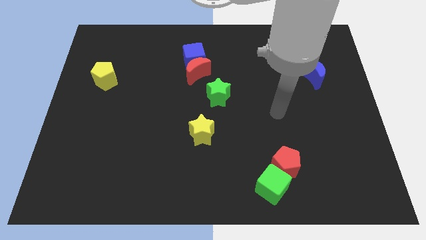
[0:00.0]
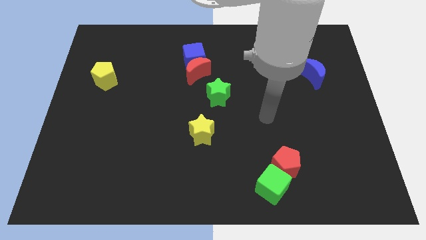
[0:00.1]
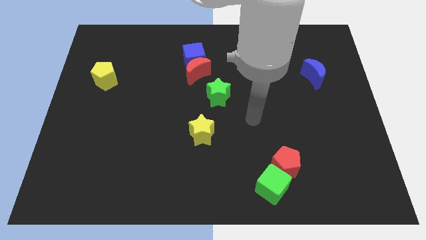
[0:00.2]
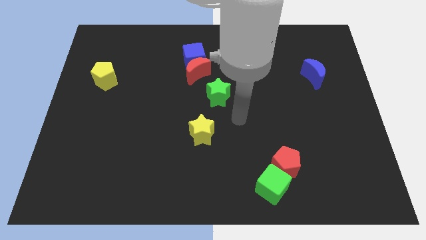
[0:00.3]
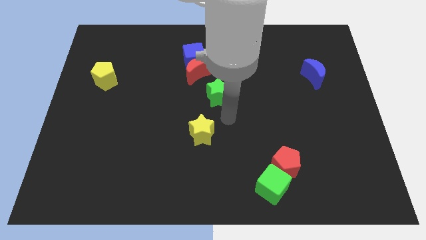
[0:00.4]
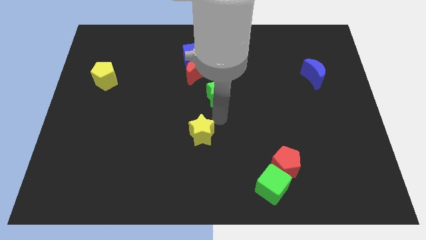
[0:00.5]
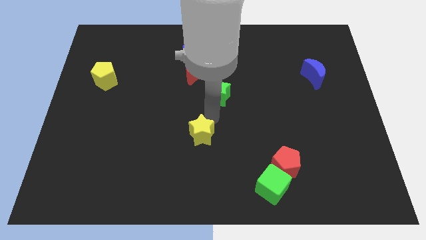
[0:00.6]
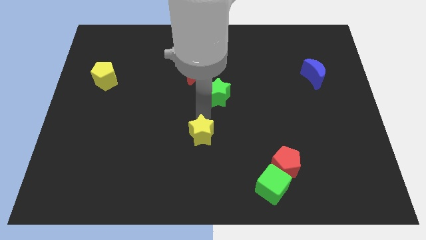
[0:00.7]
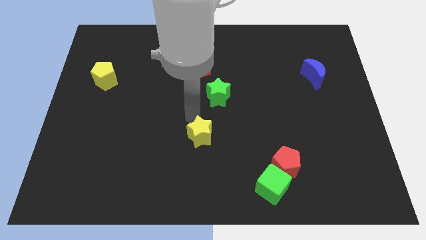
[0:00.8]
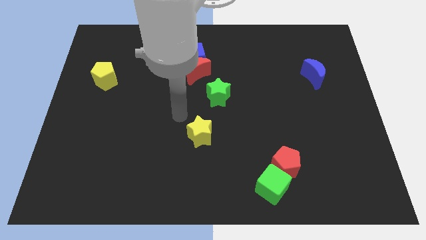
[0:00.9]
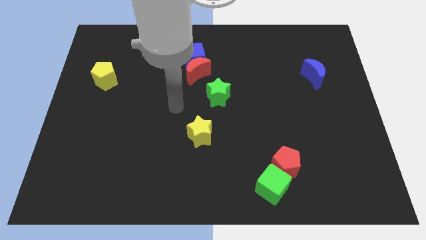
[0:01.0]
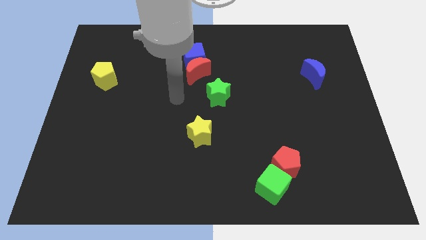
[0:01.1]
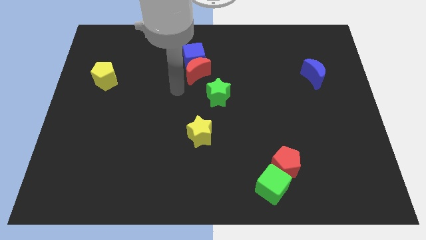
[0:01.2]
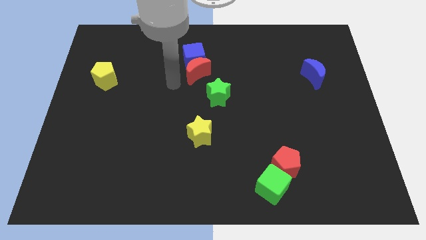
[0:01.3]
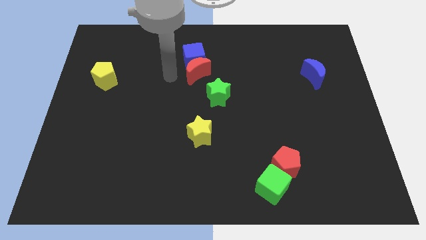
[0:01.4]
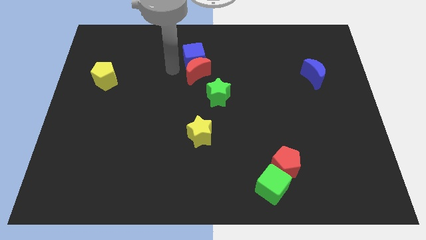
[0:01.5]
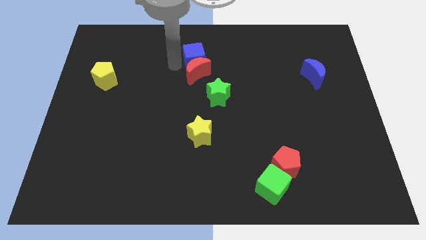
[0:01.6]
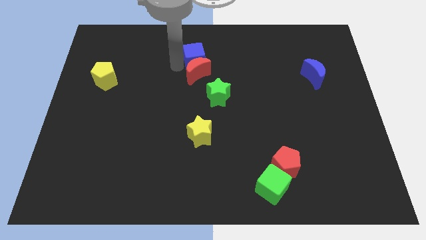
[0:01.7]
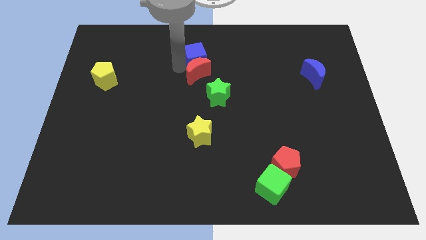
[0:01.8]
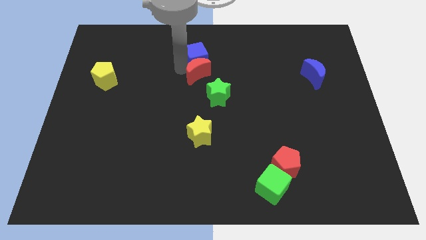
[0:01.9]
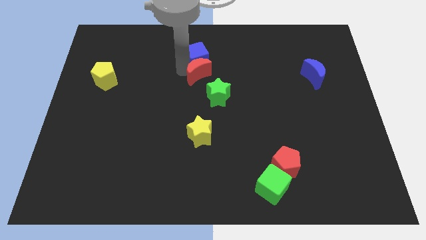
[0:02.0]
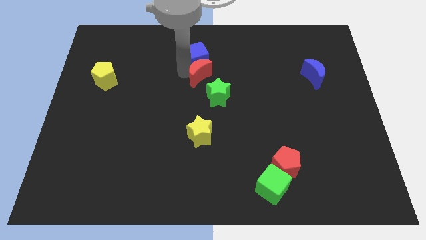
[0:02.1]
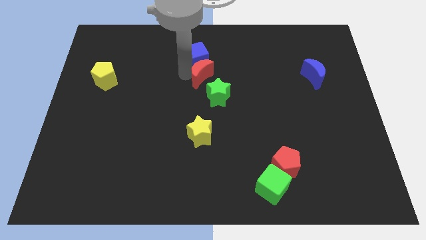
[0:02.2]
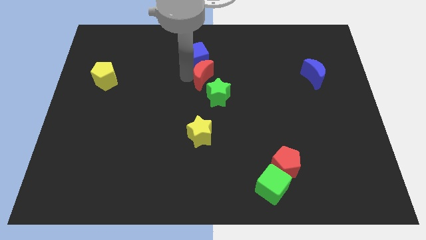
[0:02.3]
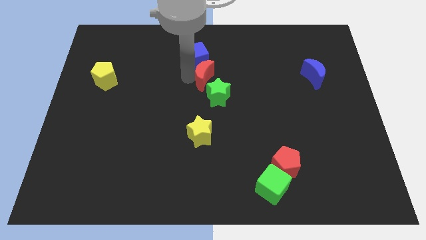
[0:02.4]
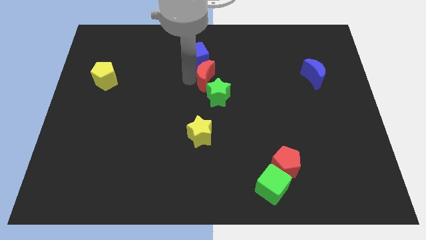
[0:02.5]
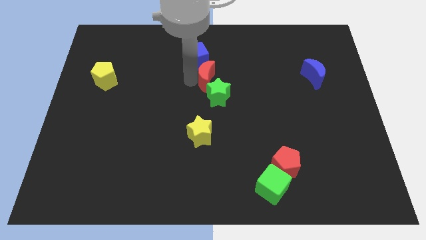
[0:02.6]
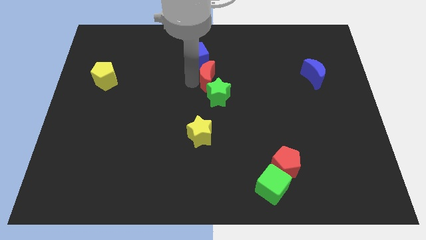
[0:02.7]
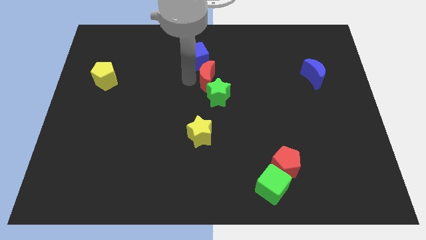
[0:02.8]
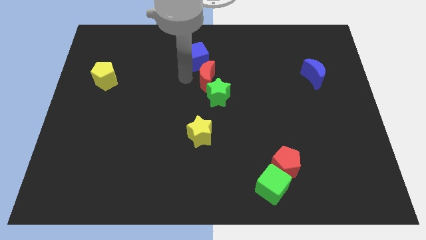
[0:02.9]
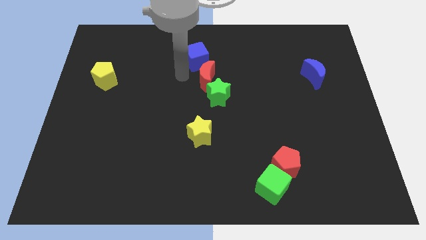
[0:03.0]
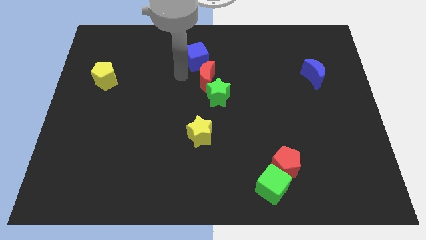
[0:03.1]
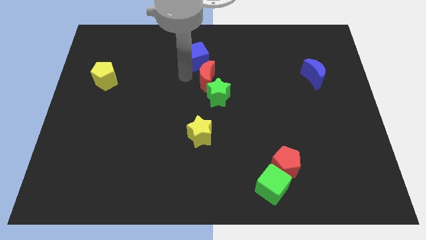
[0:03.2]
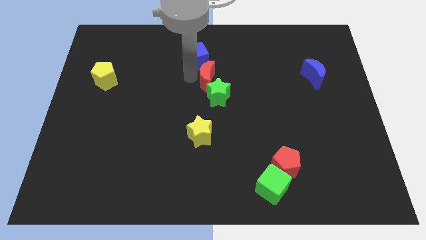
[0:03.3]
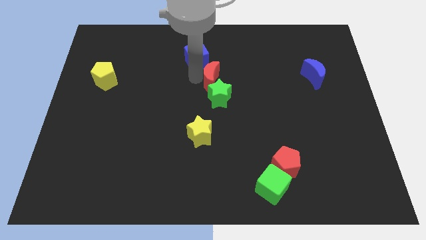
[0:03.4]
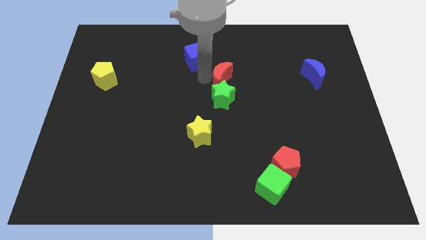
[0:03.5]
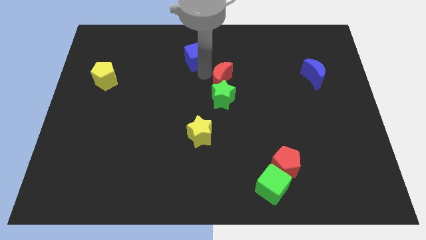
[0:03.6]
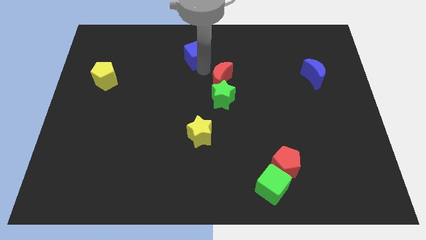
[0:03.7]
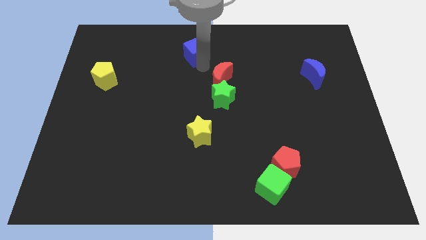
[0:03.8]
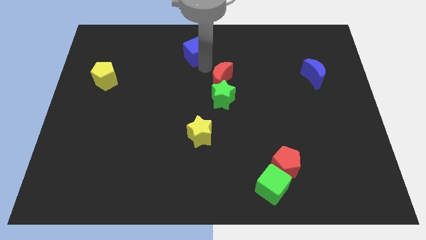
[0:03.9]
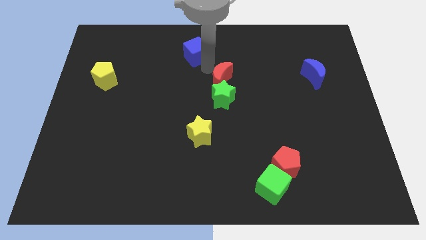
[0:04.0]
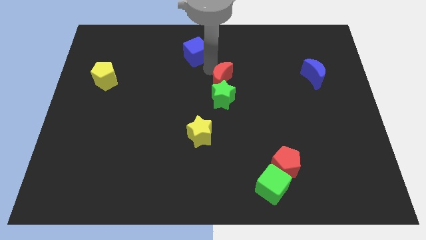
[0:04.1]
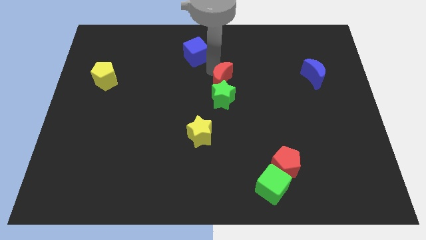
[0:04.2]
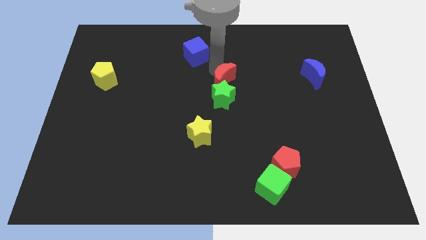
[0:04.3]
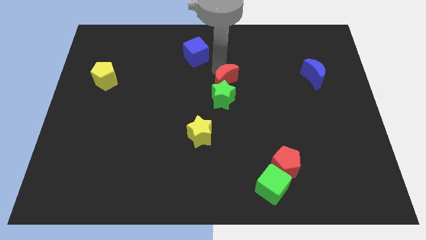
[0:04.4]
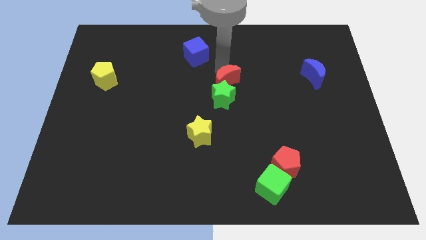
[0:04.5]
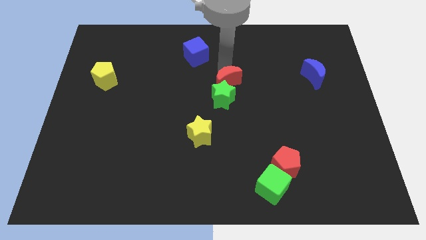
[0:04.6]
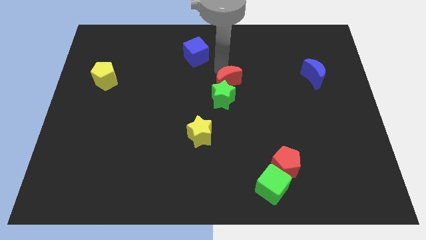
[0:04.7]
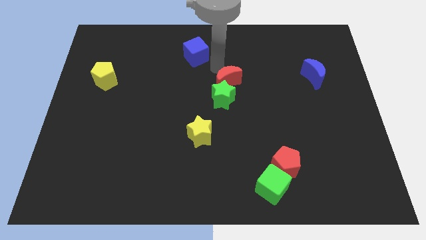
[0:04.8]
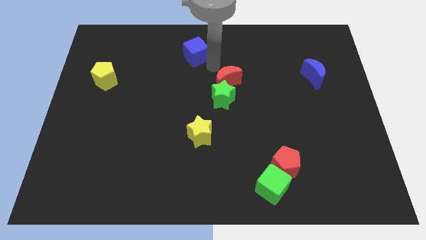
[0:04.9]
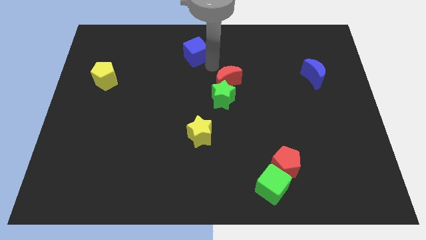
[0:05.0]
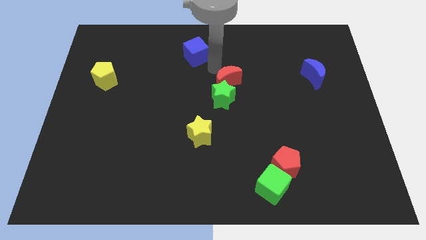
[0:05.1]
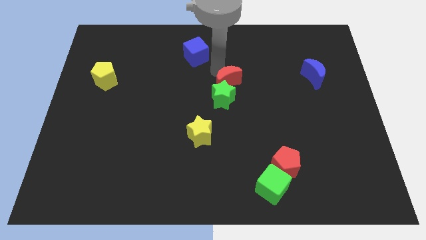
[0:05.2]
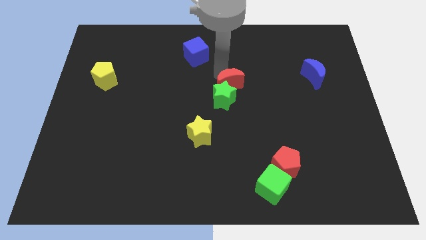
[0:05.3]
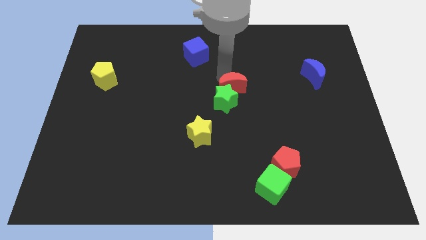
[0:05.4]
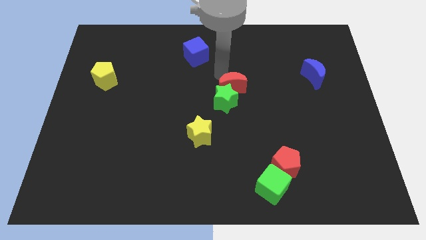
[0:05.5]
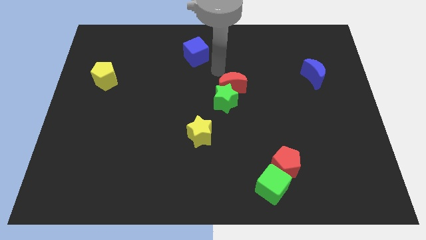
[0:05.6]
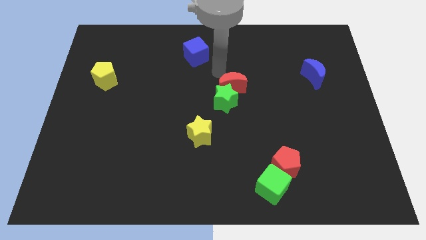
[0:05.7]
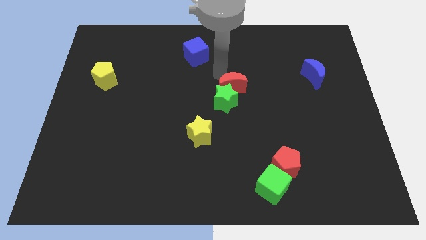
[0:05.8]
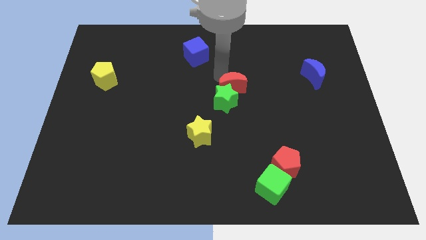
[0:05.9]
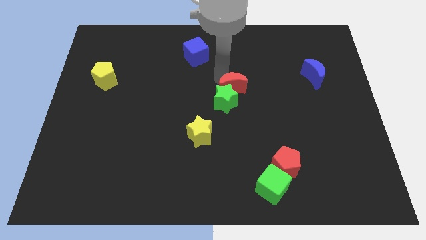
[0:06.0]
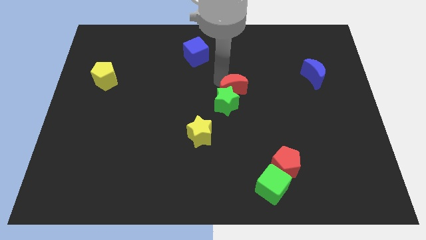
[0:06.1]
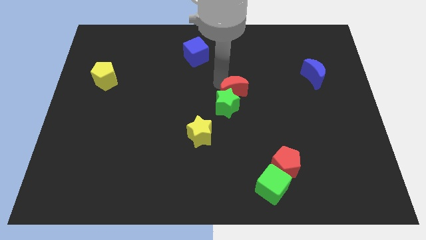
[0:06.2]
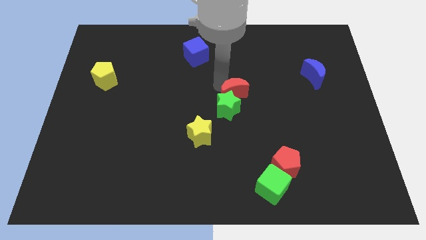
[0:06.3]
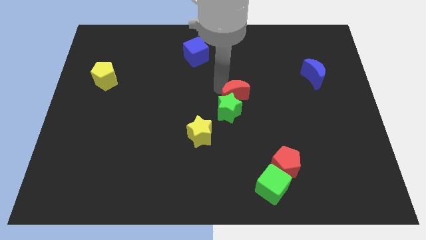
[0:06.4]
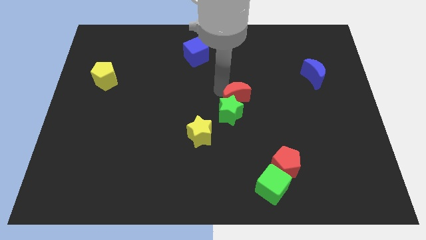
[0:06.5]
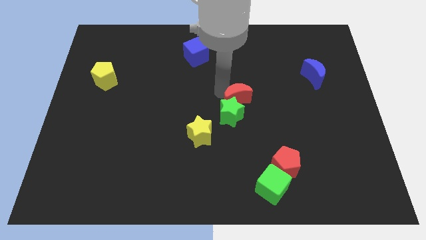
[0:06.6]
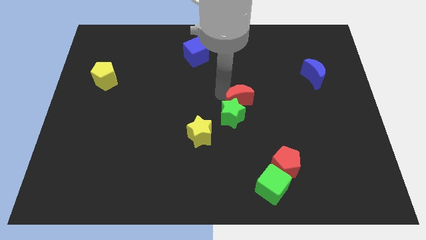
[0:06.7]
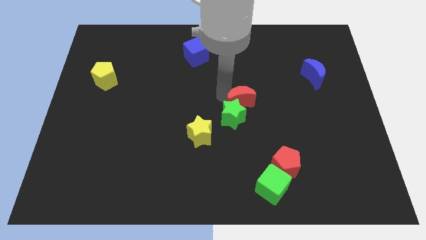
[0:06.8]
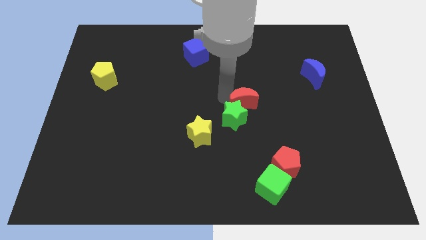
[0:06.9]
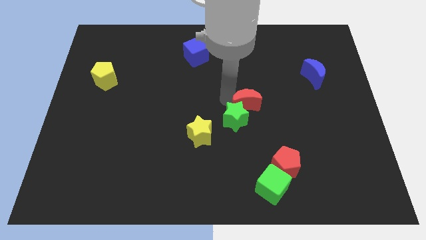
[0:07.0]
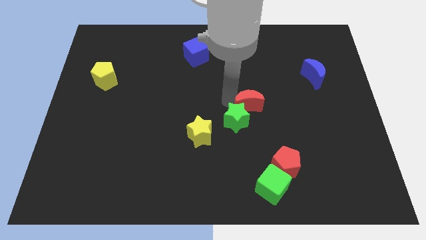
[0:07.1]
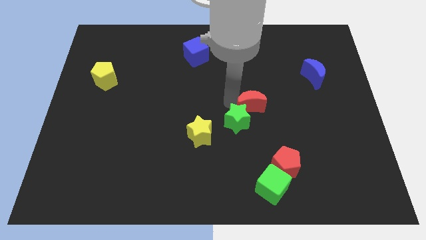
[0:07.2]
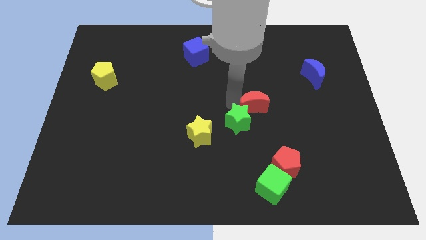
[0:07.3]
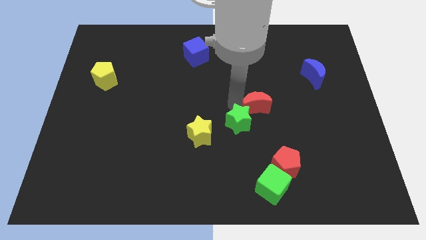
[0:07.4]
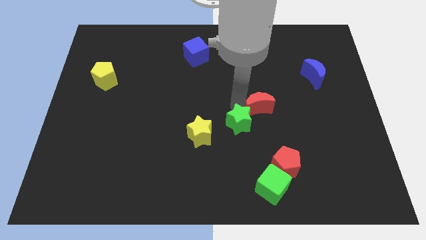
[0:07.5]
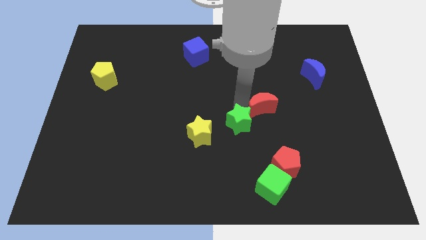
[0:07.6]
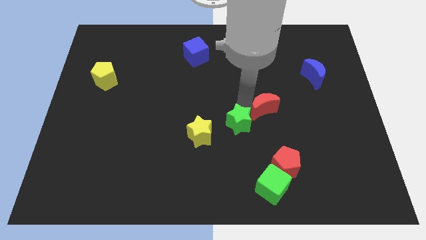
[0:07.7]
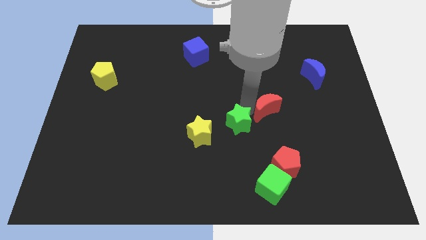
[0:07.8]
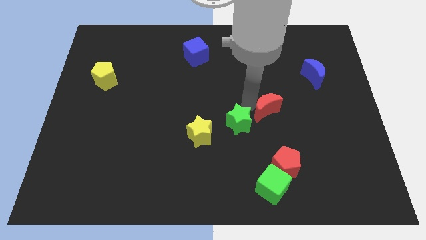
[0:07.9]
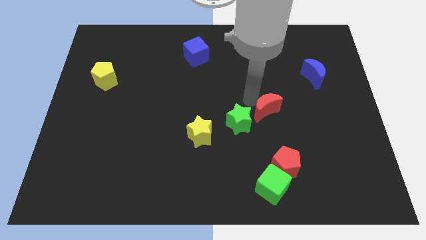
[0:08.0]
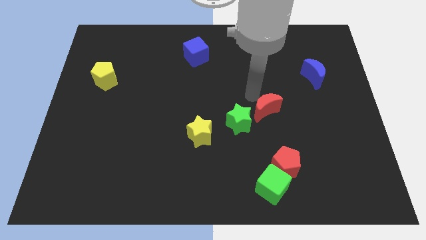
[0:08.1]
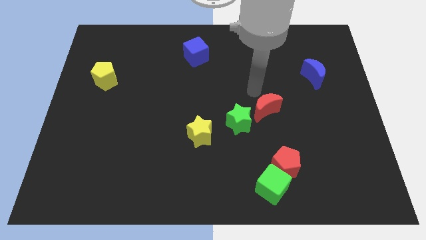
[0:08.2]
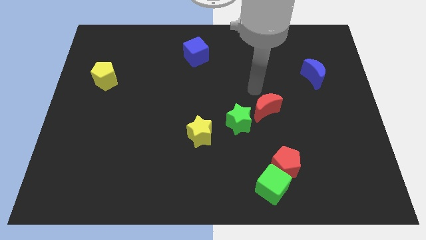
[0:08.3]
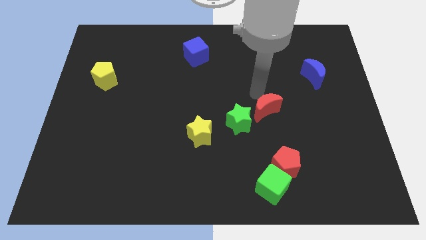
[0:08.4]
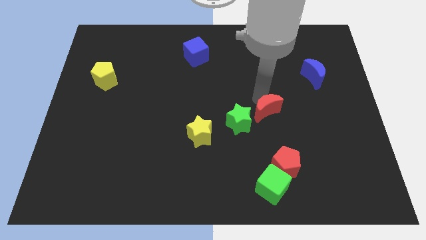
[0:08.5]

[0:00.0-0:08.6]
move the red moon diagonally downwards and right
